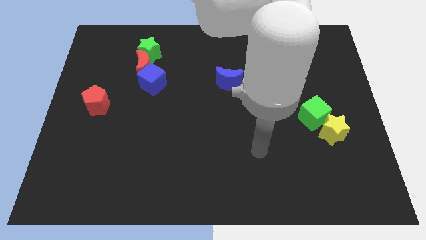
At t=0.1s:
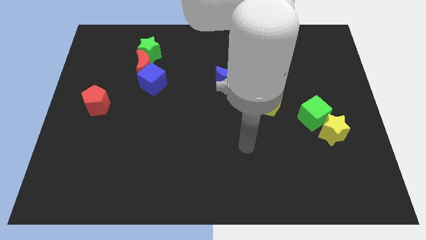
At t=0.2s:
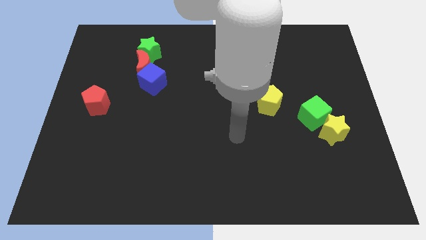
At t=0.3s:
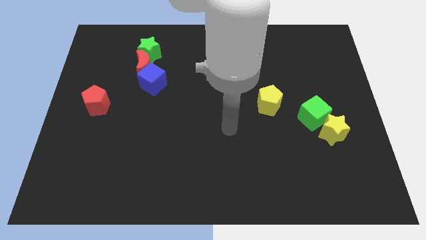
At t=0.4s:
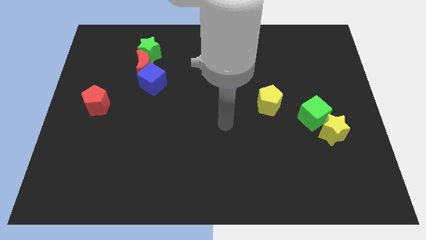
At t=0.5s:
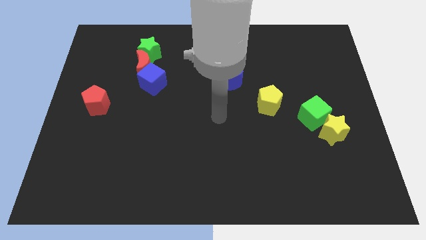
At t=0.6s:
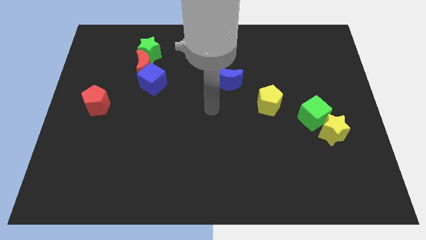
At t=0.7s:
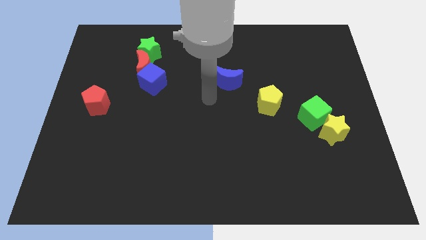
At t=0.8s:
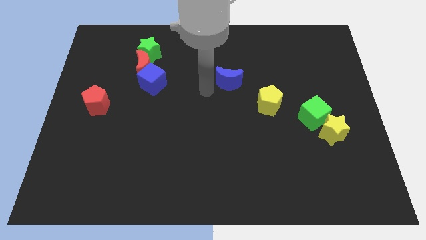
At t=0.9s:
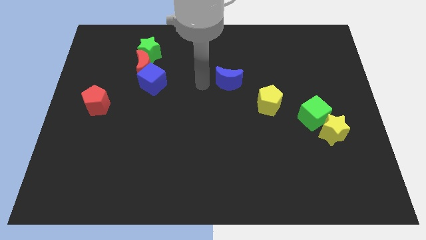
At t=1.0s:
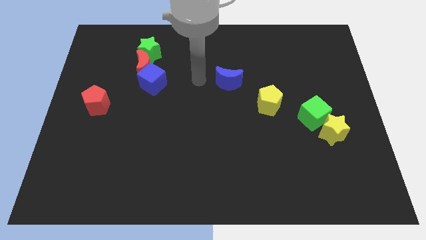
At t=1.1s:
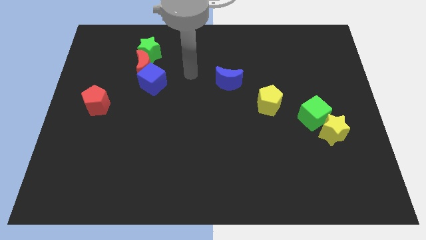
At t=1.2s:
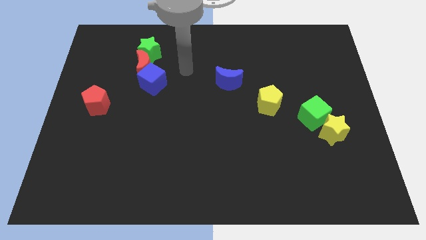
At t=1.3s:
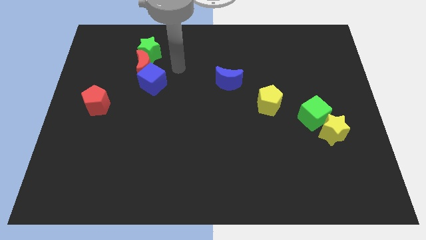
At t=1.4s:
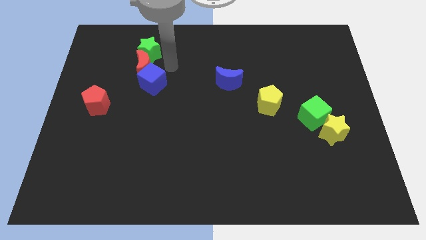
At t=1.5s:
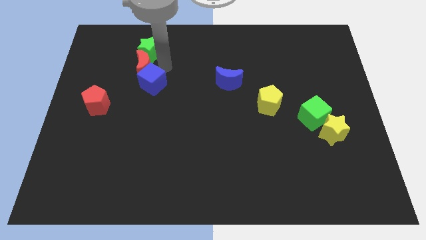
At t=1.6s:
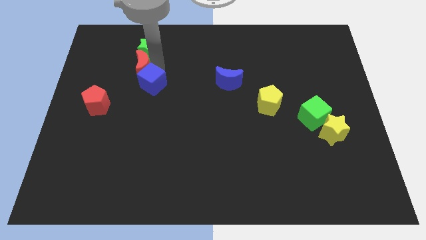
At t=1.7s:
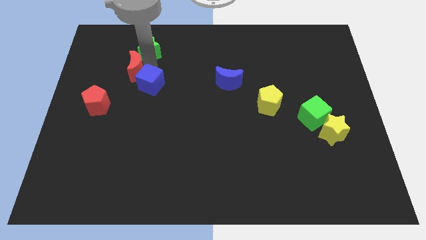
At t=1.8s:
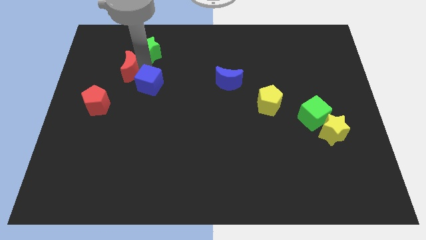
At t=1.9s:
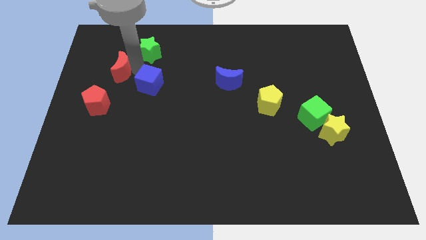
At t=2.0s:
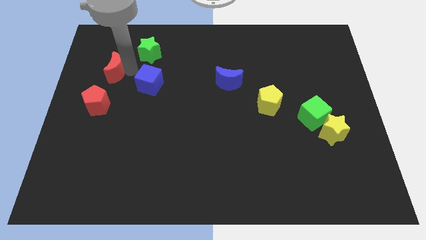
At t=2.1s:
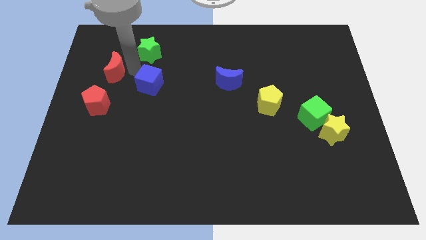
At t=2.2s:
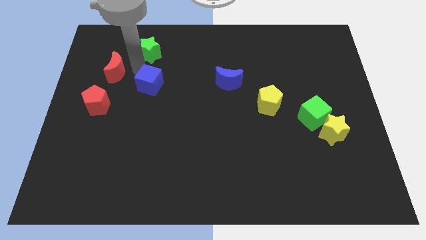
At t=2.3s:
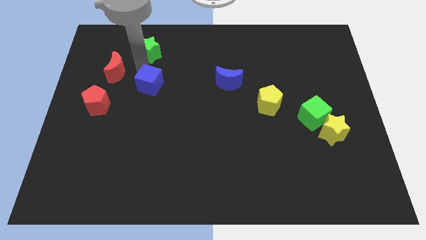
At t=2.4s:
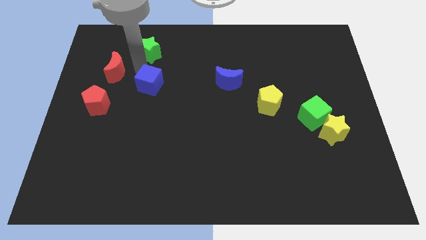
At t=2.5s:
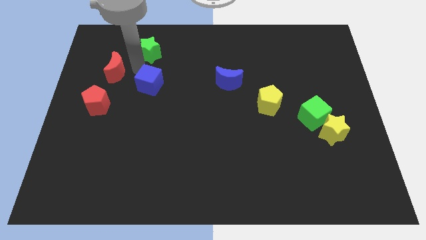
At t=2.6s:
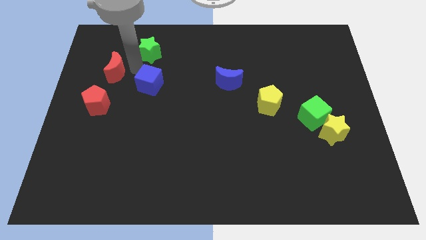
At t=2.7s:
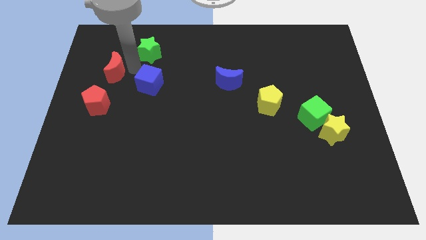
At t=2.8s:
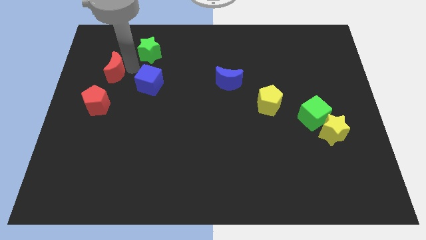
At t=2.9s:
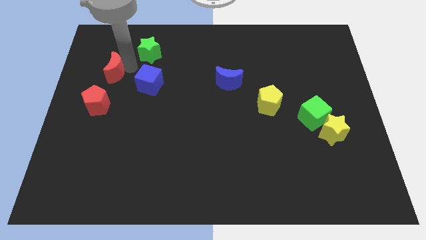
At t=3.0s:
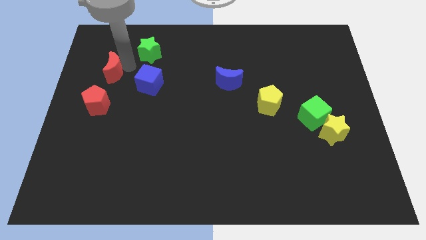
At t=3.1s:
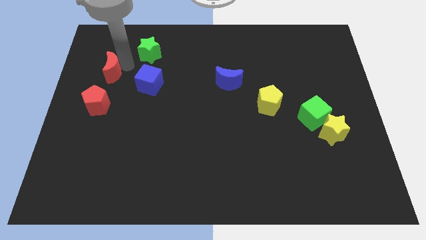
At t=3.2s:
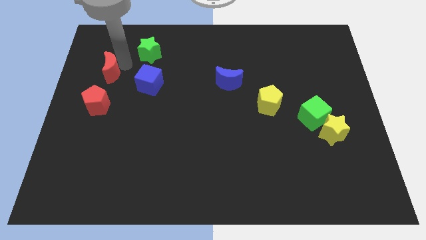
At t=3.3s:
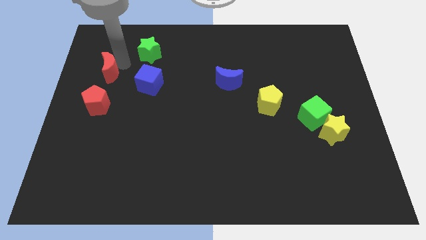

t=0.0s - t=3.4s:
pull the red moon apart from the green star and blue cube

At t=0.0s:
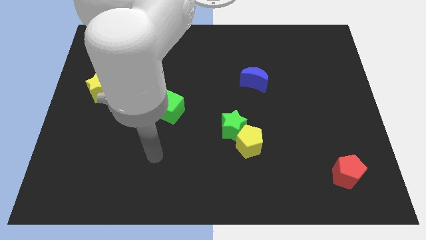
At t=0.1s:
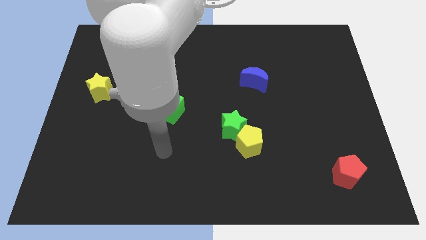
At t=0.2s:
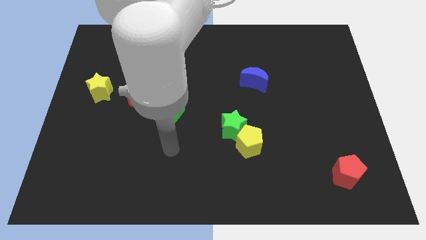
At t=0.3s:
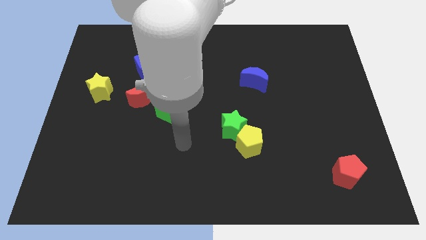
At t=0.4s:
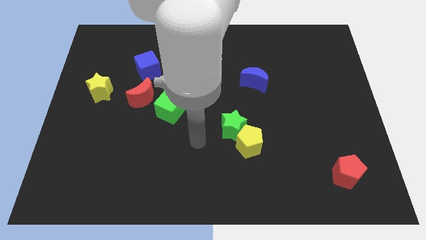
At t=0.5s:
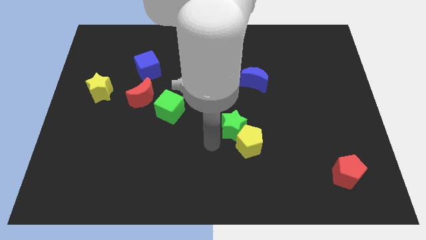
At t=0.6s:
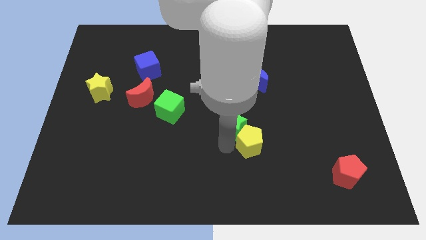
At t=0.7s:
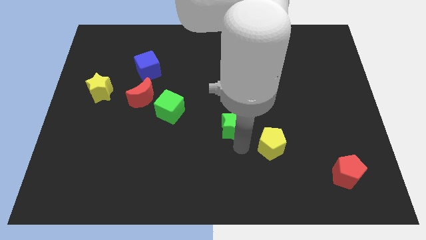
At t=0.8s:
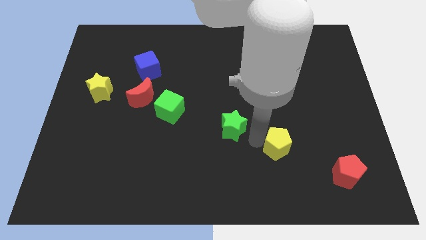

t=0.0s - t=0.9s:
separate the green star from the yellow pentagon

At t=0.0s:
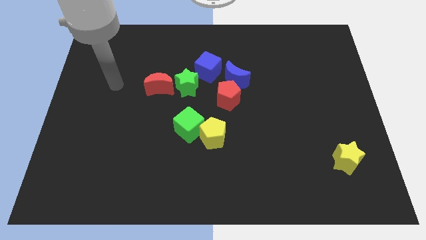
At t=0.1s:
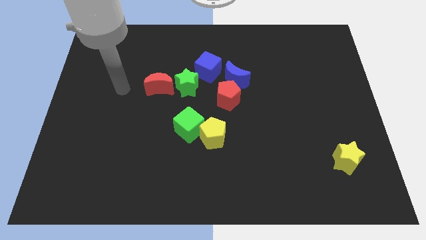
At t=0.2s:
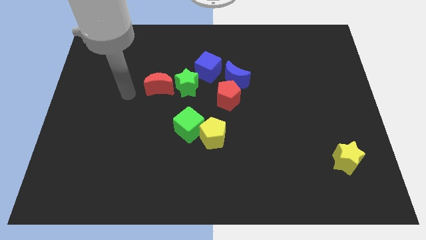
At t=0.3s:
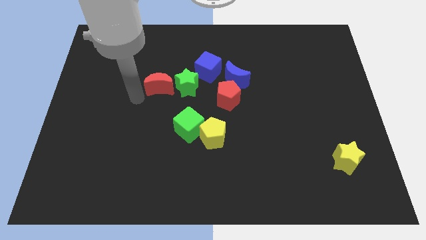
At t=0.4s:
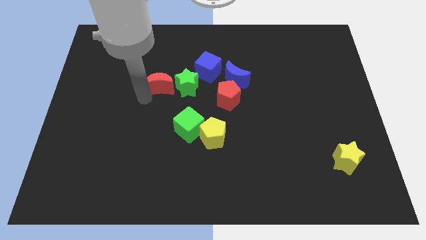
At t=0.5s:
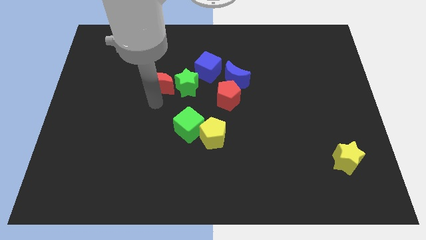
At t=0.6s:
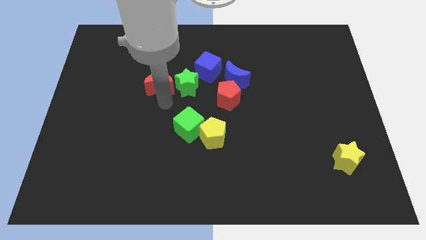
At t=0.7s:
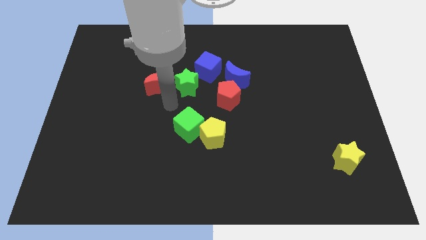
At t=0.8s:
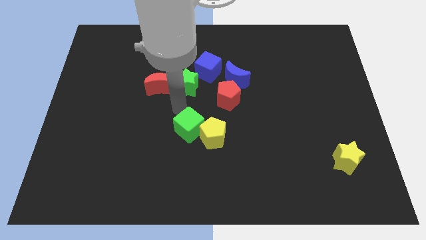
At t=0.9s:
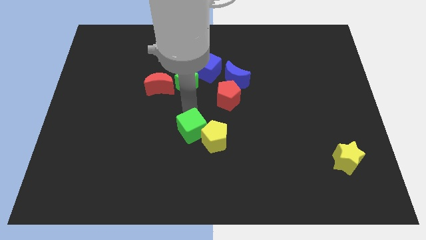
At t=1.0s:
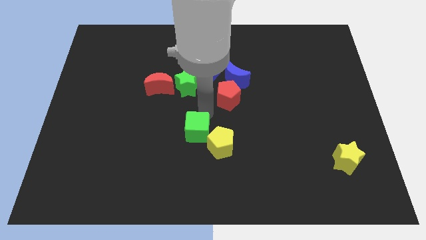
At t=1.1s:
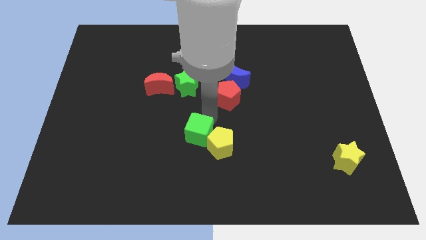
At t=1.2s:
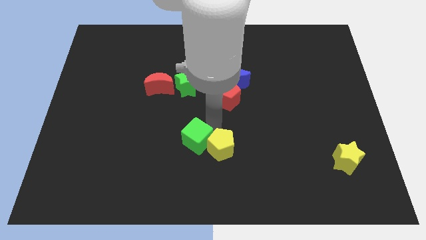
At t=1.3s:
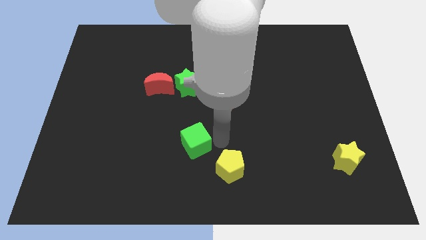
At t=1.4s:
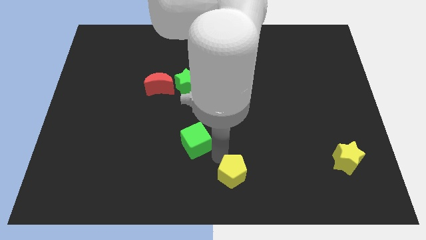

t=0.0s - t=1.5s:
separate the green cube from the yellow pentagon

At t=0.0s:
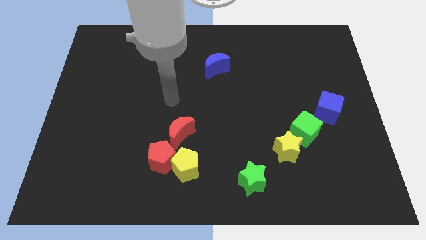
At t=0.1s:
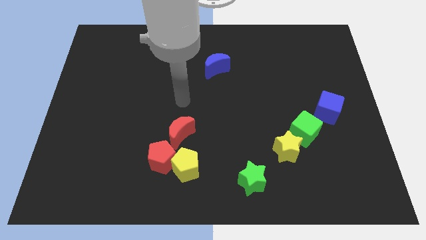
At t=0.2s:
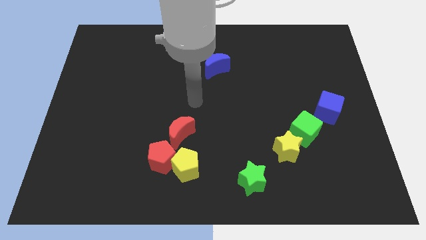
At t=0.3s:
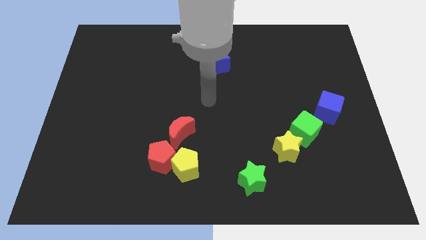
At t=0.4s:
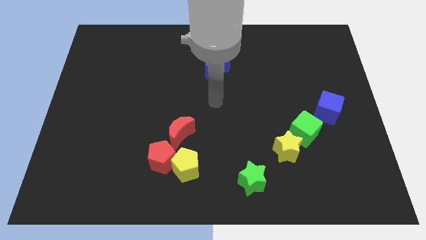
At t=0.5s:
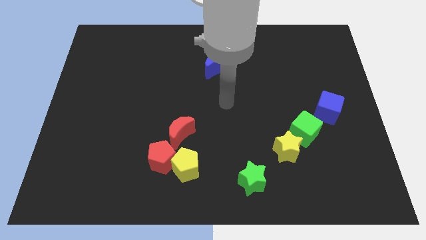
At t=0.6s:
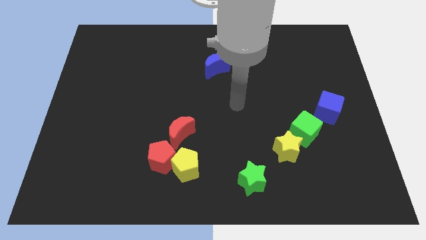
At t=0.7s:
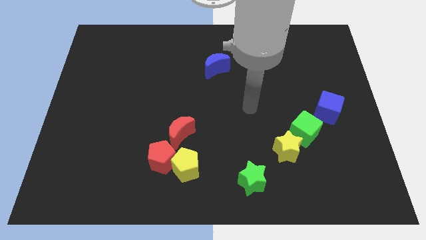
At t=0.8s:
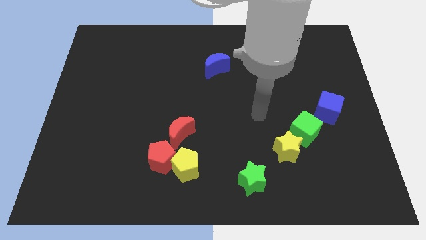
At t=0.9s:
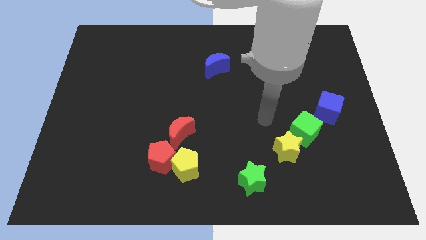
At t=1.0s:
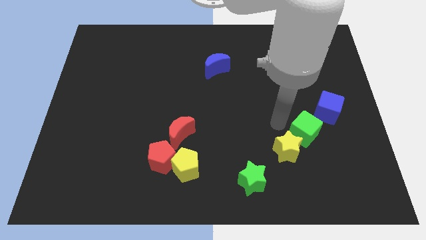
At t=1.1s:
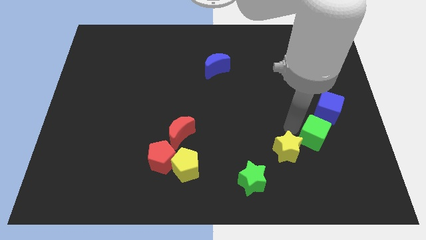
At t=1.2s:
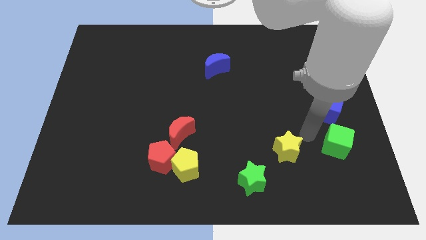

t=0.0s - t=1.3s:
separate the yellow star from the green cube

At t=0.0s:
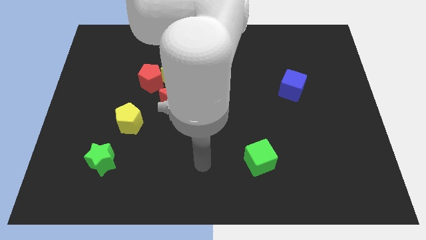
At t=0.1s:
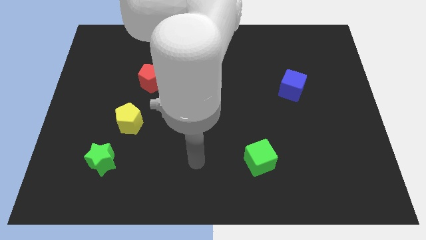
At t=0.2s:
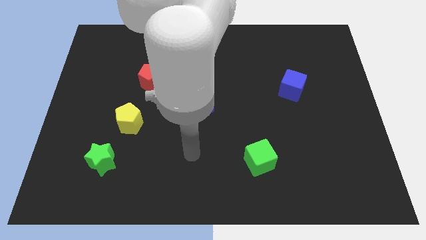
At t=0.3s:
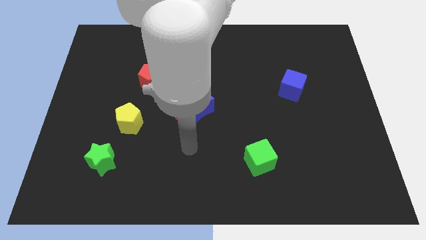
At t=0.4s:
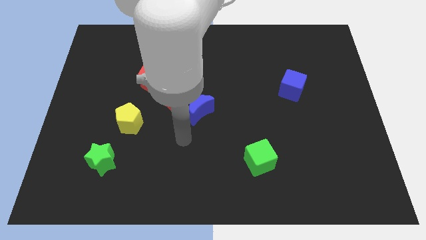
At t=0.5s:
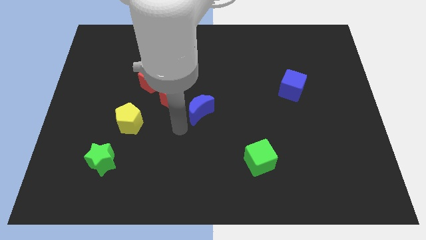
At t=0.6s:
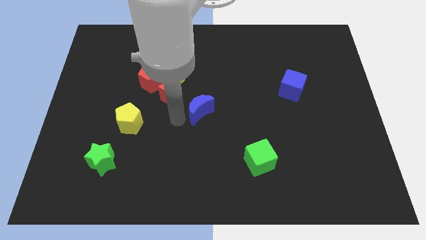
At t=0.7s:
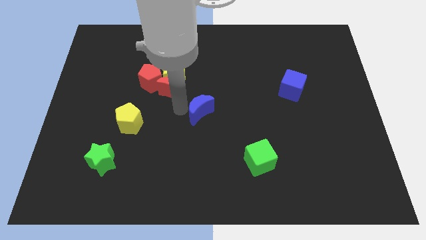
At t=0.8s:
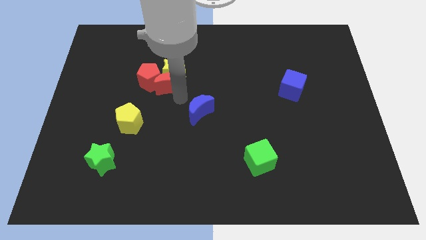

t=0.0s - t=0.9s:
move the blue moon away from the red moon

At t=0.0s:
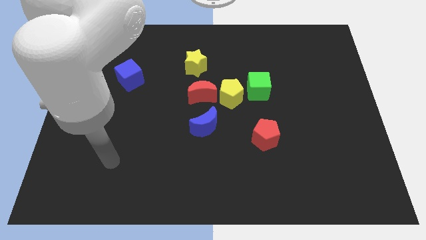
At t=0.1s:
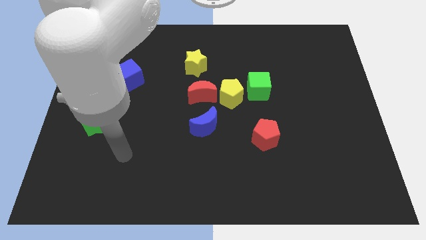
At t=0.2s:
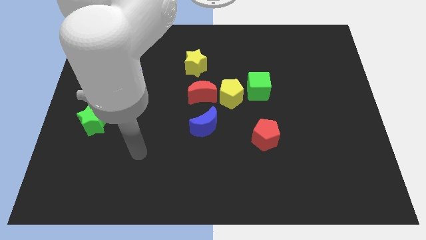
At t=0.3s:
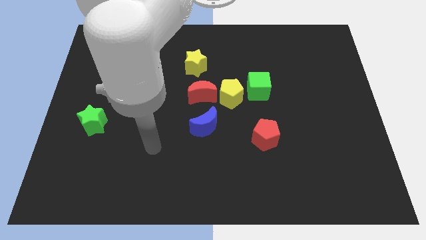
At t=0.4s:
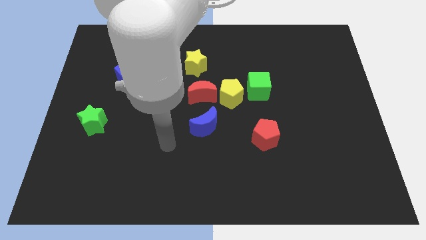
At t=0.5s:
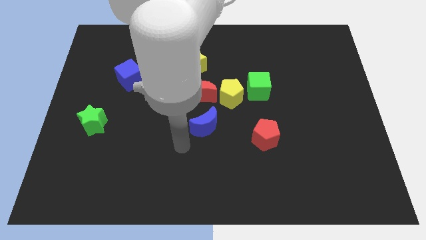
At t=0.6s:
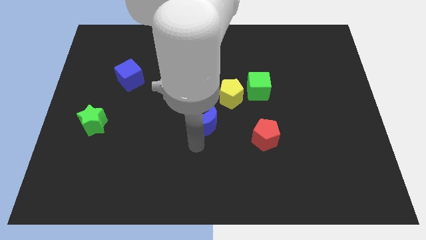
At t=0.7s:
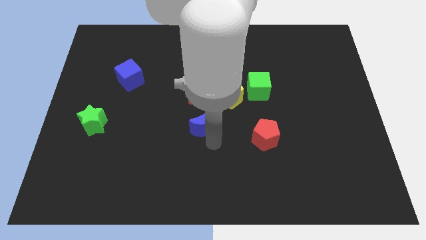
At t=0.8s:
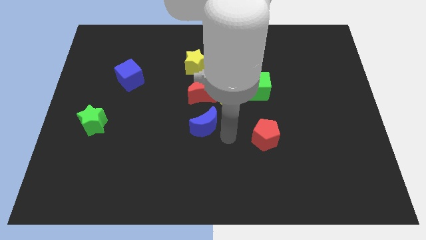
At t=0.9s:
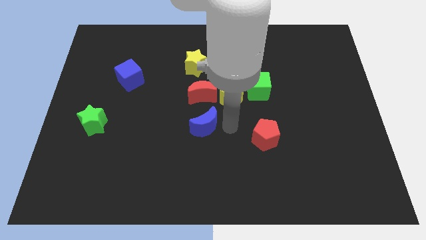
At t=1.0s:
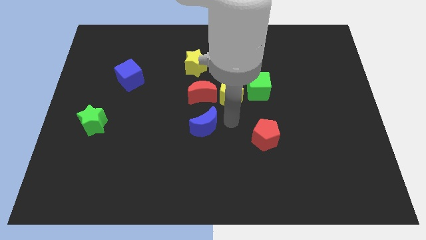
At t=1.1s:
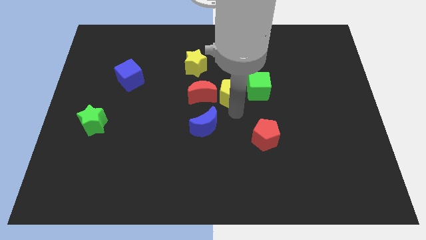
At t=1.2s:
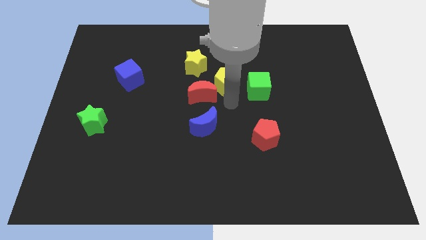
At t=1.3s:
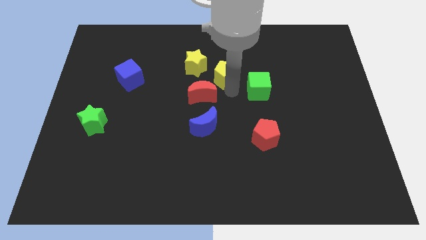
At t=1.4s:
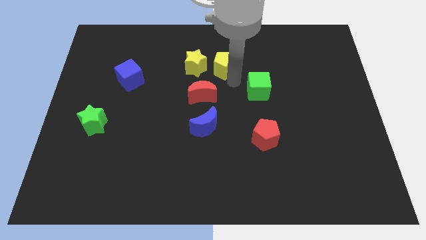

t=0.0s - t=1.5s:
move the green cube away from the yellow pentagon

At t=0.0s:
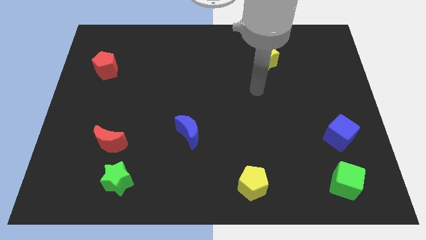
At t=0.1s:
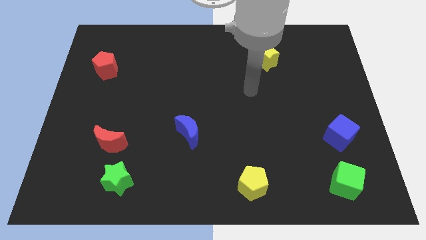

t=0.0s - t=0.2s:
pull the red moon apart from the green star
